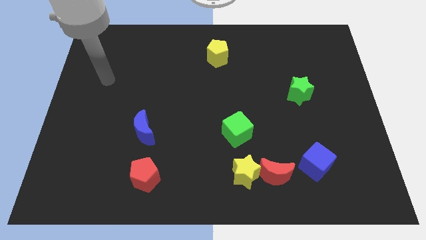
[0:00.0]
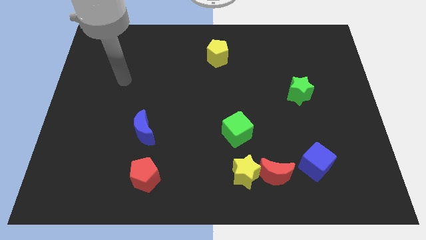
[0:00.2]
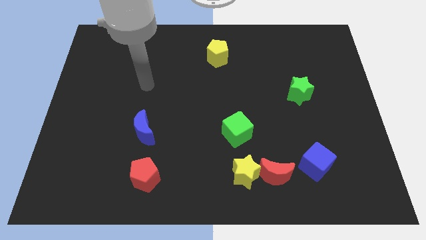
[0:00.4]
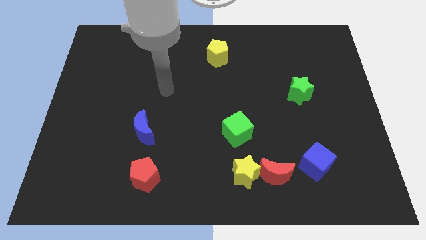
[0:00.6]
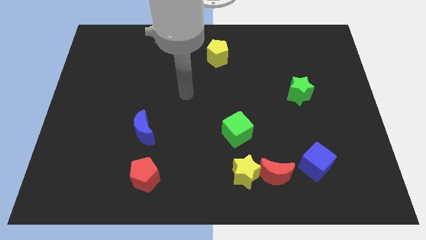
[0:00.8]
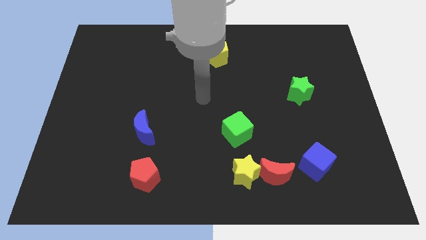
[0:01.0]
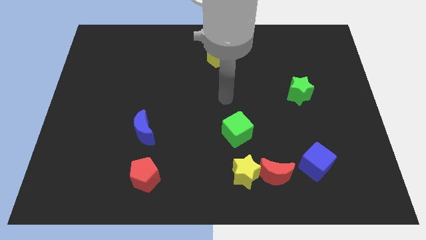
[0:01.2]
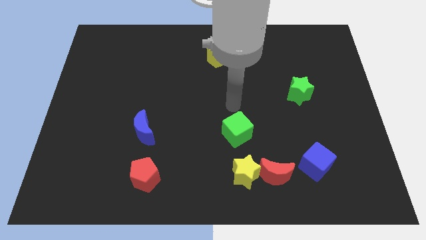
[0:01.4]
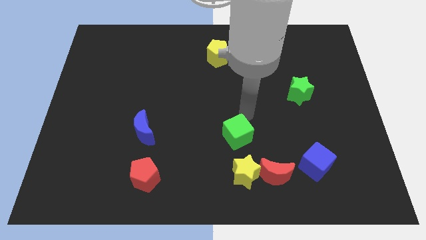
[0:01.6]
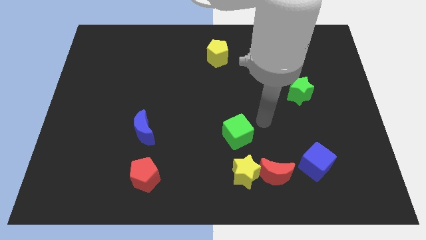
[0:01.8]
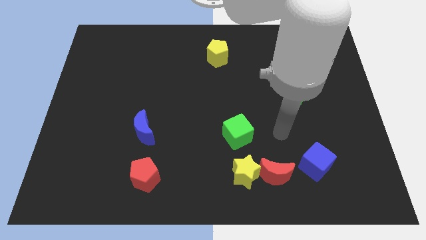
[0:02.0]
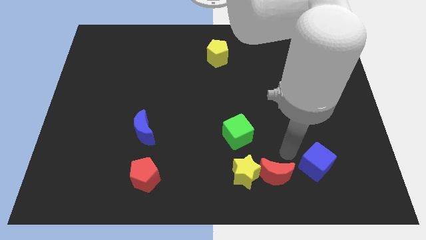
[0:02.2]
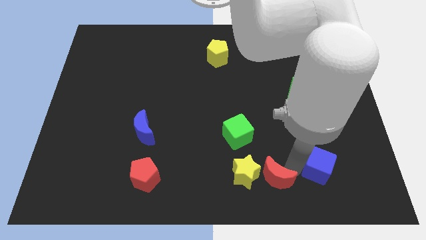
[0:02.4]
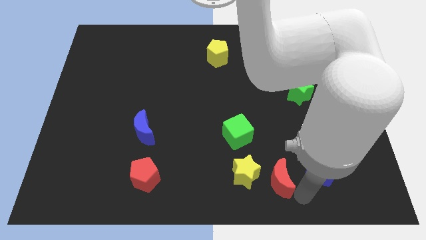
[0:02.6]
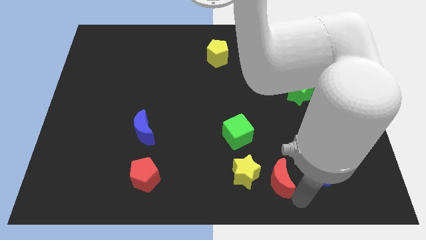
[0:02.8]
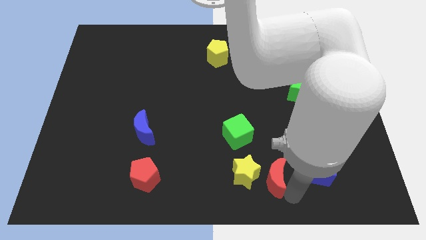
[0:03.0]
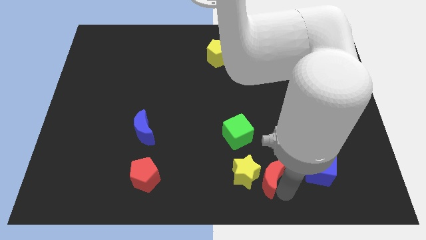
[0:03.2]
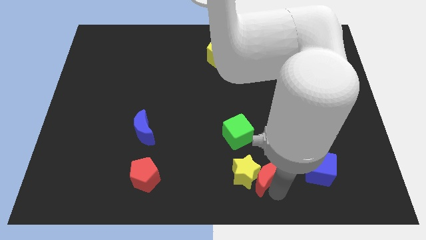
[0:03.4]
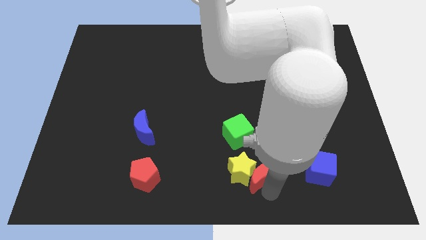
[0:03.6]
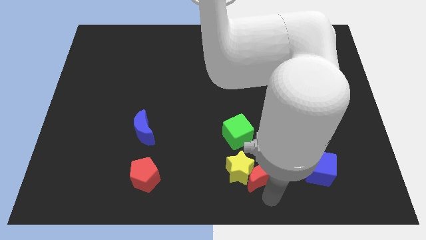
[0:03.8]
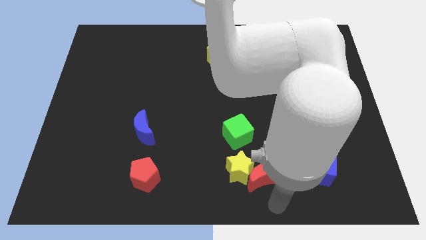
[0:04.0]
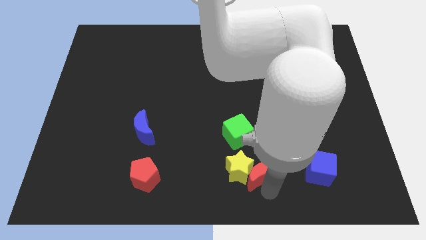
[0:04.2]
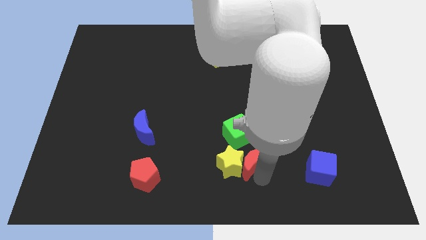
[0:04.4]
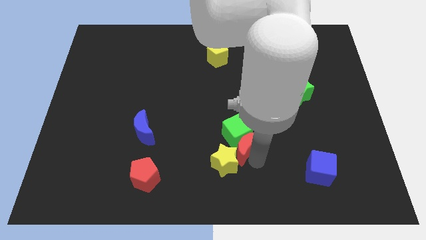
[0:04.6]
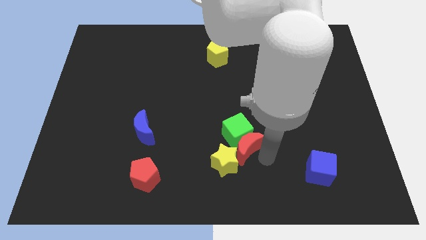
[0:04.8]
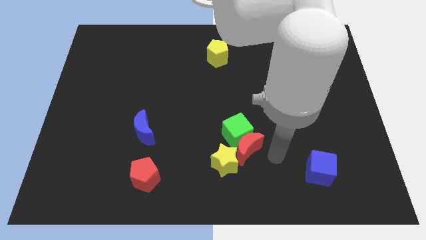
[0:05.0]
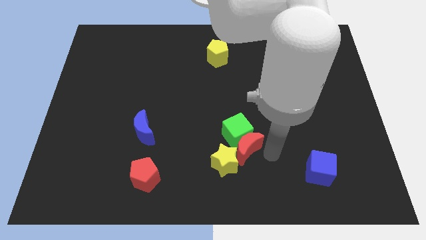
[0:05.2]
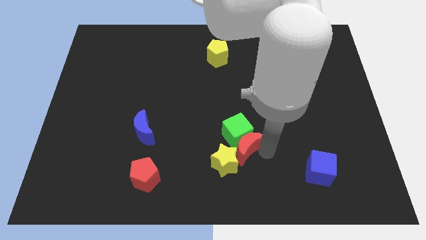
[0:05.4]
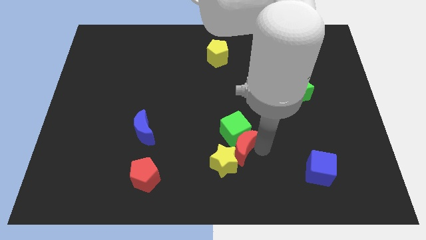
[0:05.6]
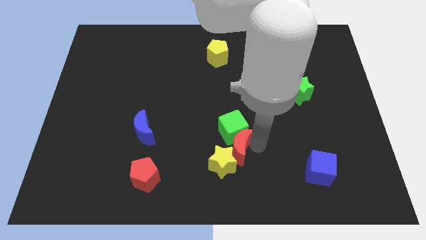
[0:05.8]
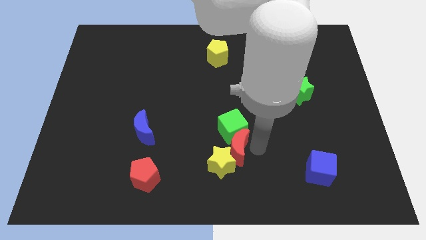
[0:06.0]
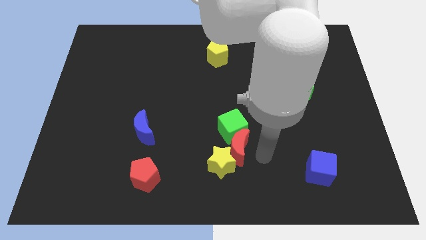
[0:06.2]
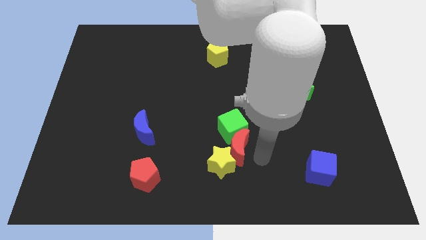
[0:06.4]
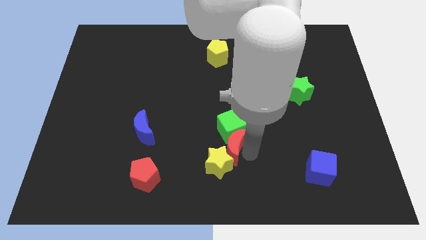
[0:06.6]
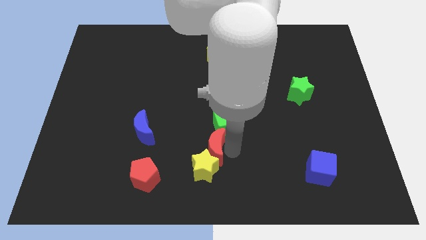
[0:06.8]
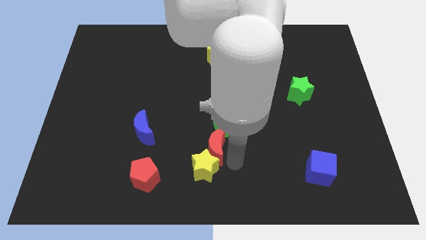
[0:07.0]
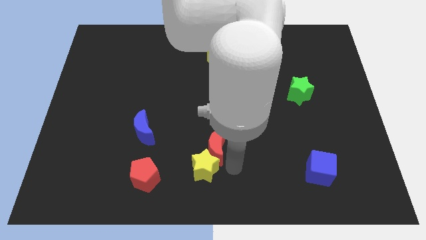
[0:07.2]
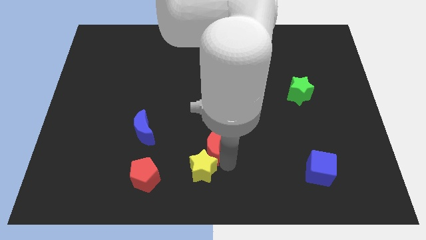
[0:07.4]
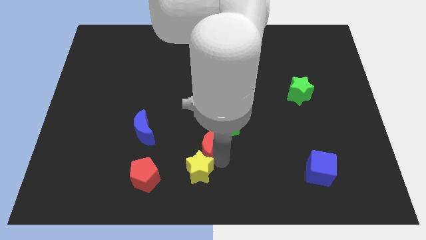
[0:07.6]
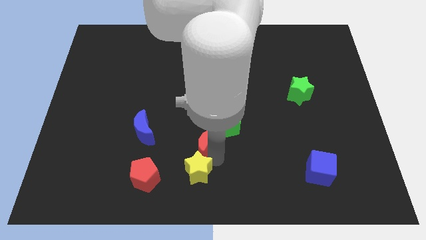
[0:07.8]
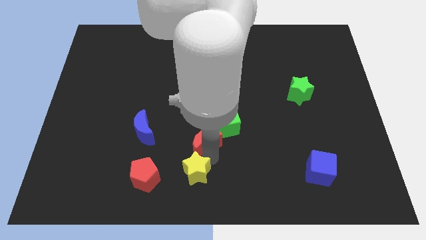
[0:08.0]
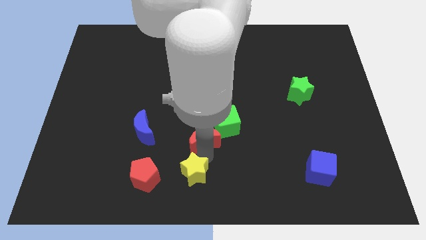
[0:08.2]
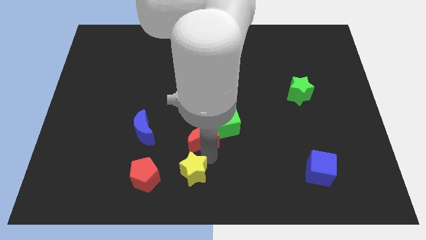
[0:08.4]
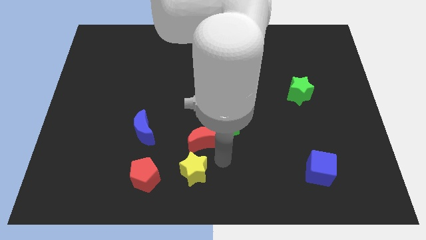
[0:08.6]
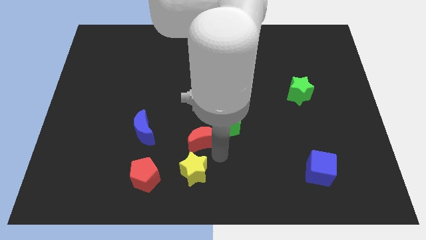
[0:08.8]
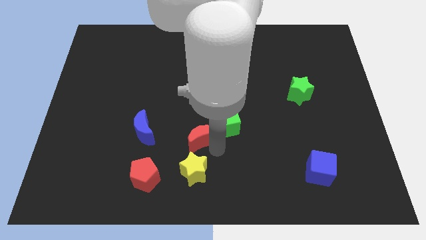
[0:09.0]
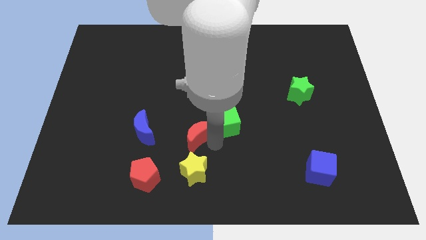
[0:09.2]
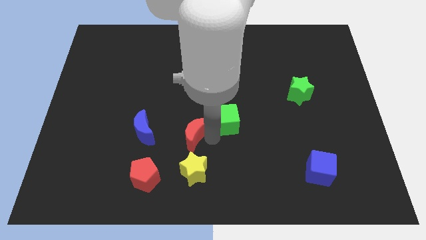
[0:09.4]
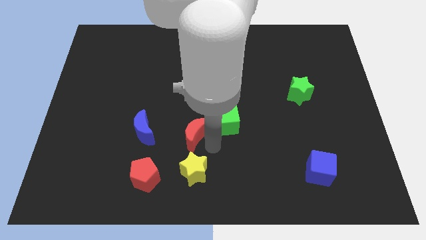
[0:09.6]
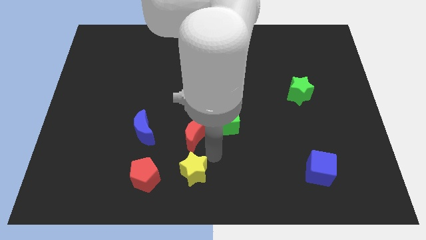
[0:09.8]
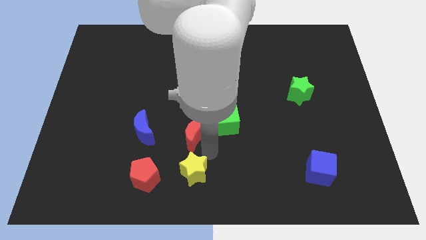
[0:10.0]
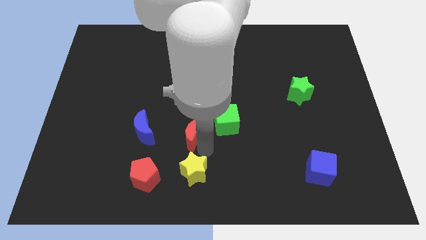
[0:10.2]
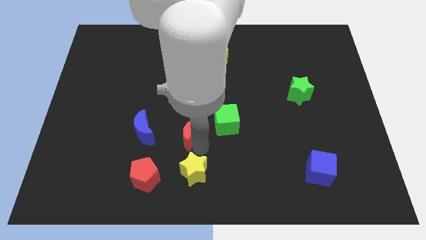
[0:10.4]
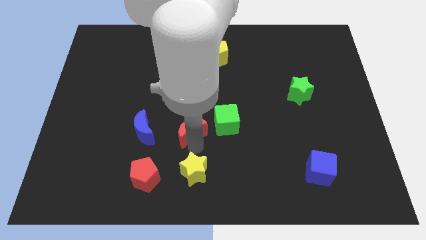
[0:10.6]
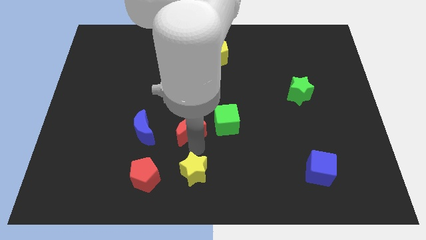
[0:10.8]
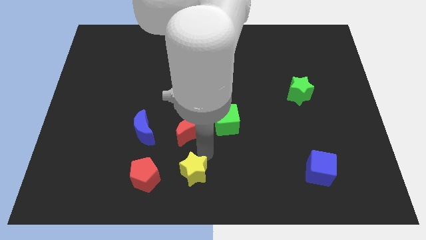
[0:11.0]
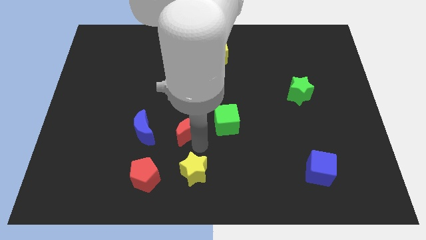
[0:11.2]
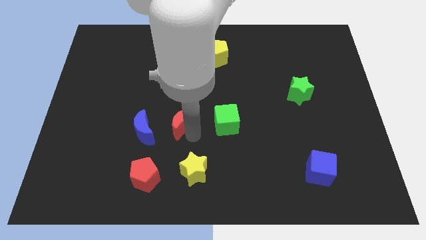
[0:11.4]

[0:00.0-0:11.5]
move the red moon diagonally up and to the right of the blue moon
